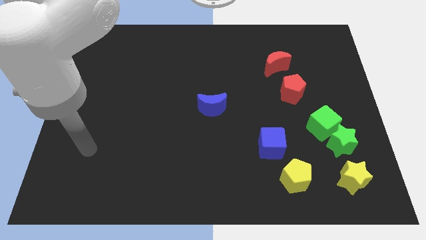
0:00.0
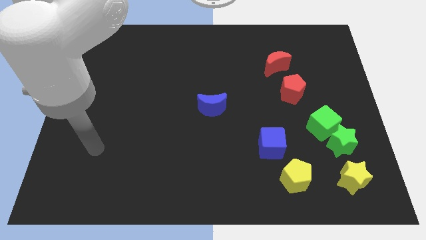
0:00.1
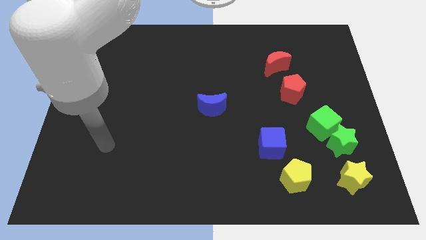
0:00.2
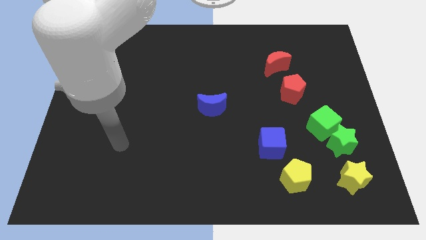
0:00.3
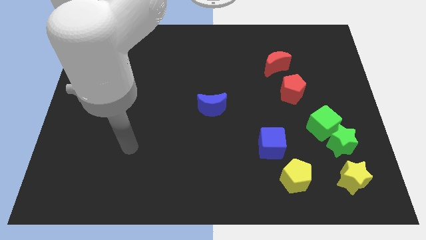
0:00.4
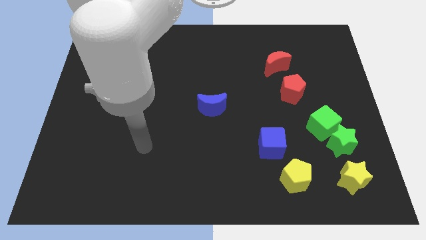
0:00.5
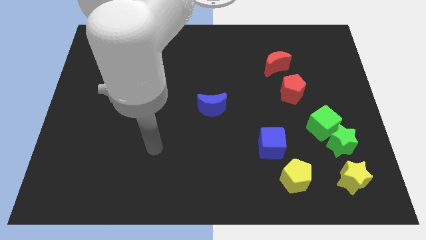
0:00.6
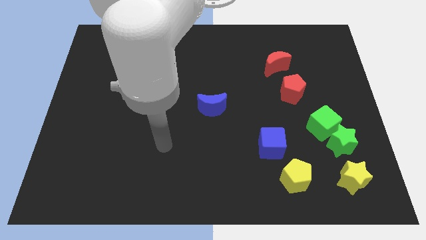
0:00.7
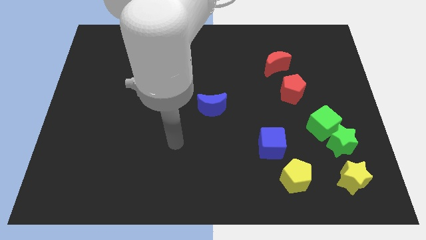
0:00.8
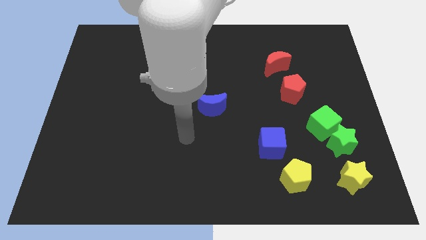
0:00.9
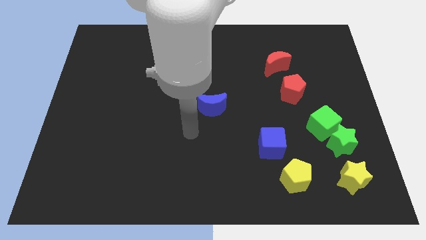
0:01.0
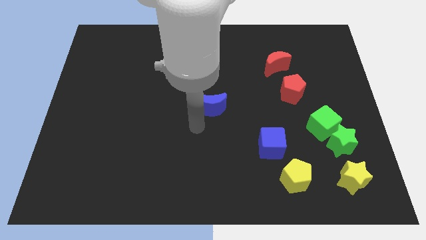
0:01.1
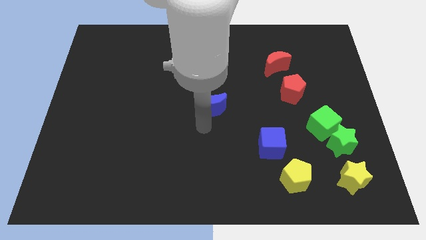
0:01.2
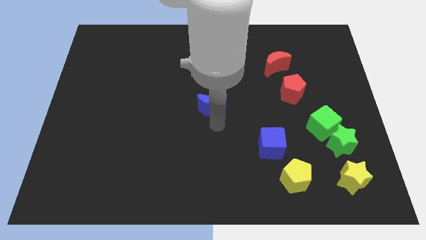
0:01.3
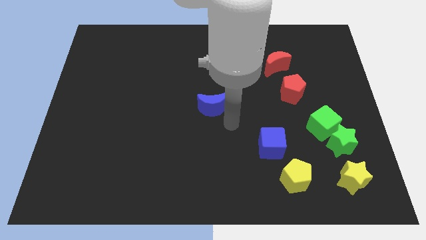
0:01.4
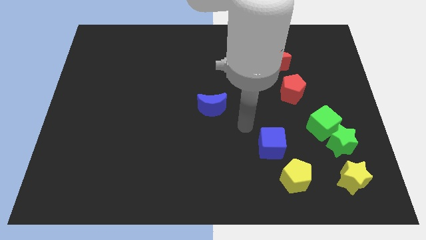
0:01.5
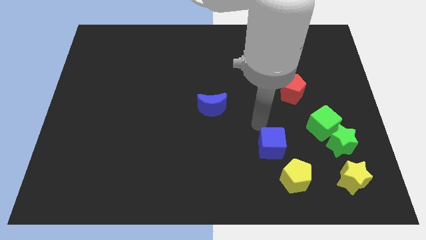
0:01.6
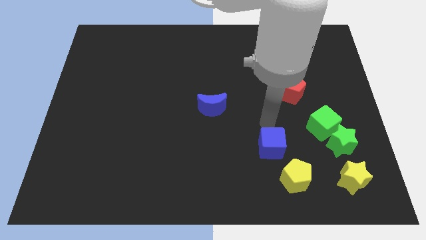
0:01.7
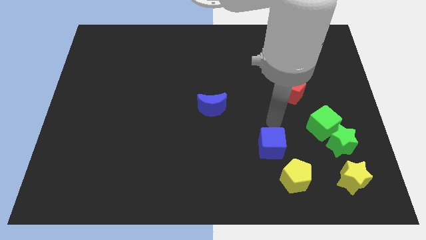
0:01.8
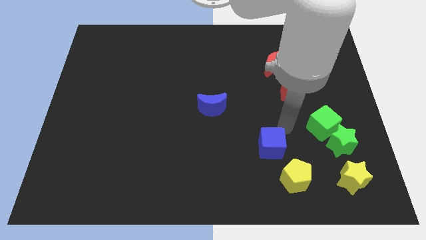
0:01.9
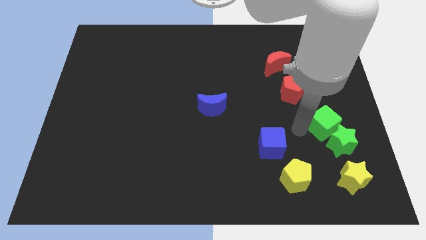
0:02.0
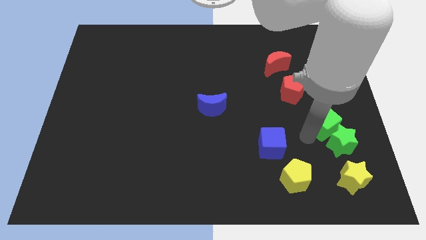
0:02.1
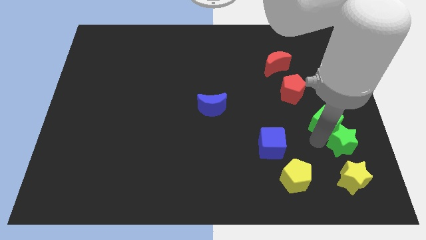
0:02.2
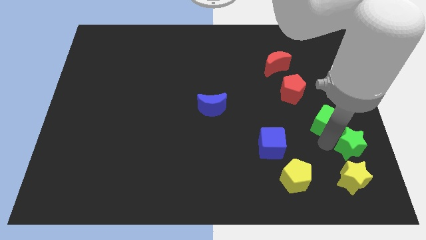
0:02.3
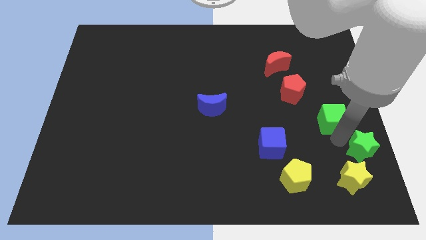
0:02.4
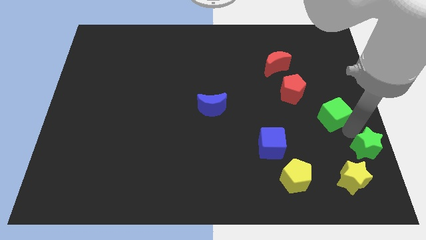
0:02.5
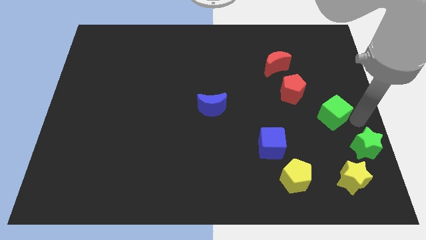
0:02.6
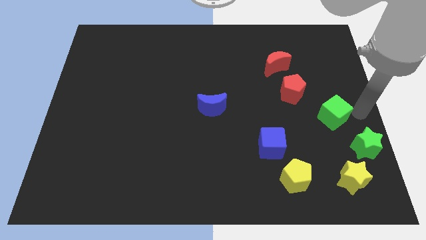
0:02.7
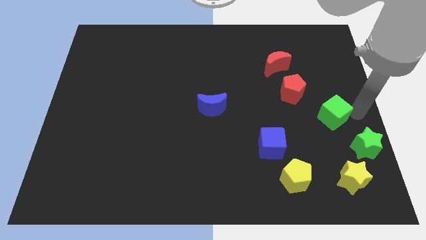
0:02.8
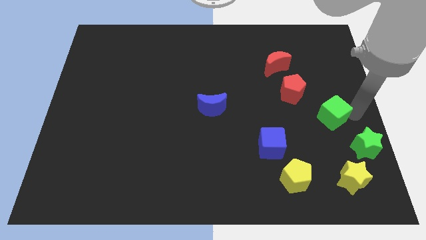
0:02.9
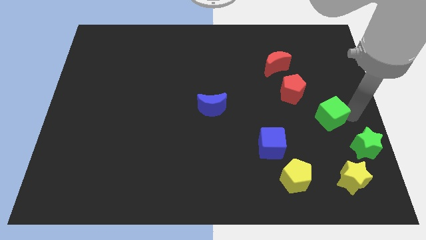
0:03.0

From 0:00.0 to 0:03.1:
separate the green cube from the green star

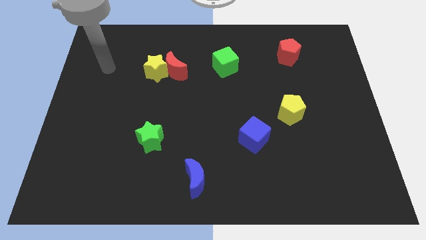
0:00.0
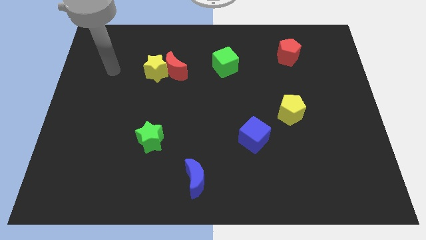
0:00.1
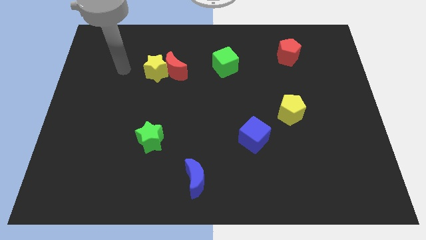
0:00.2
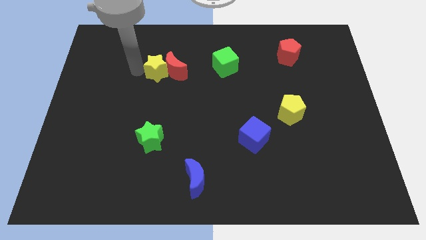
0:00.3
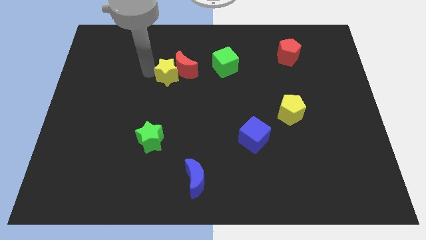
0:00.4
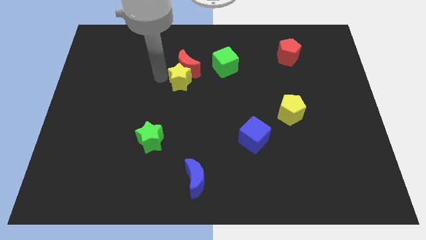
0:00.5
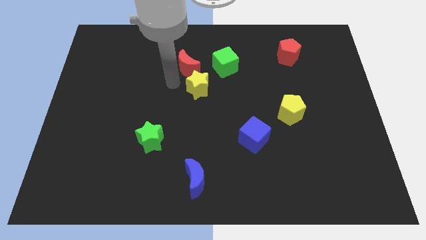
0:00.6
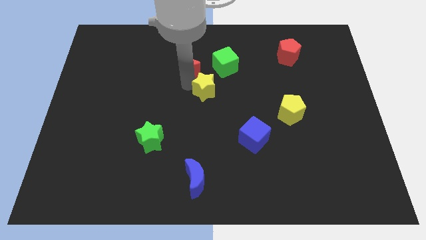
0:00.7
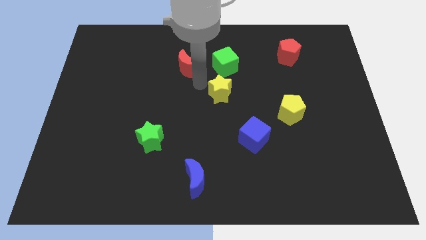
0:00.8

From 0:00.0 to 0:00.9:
separate the red moon from the yellow star

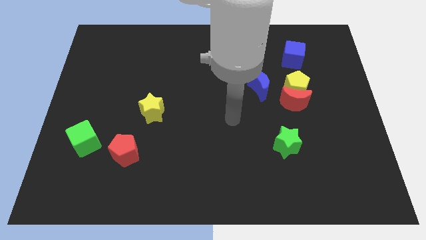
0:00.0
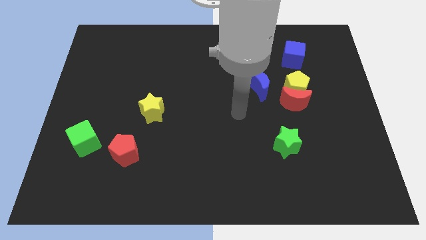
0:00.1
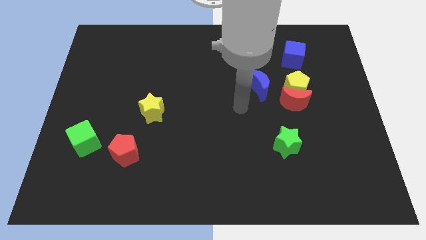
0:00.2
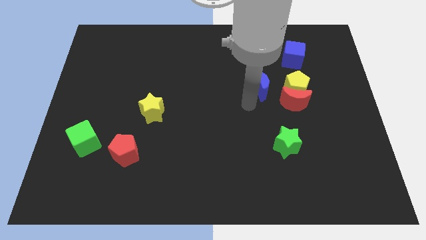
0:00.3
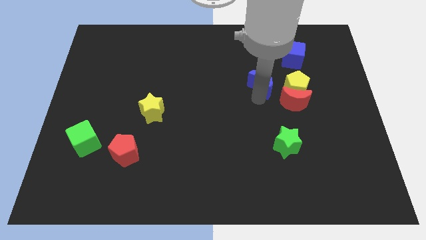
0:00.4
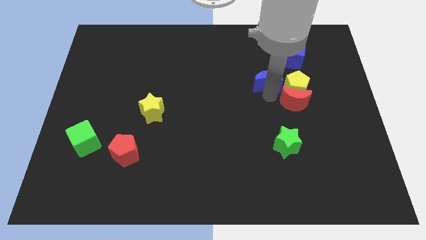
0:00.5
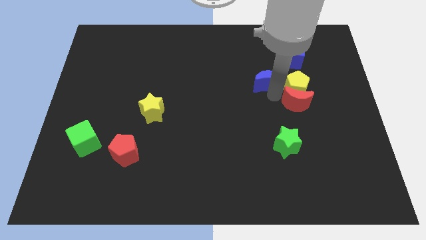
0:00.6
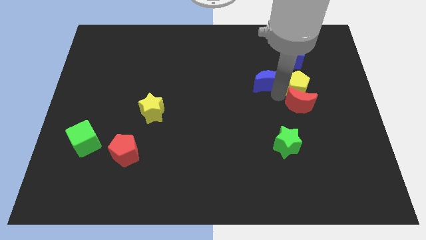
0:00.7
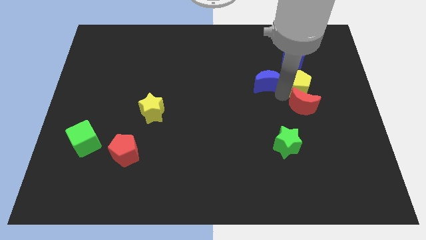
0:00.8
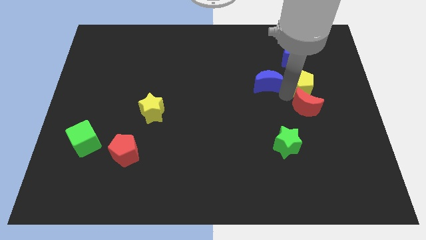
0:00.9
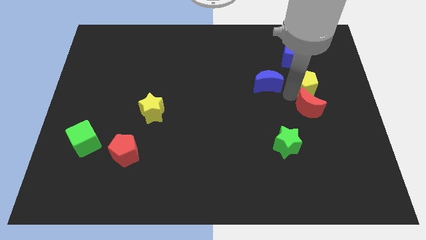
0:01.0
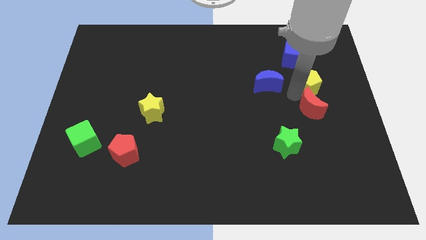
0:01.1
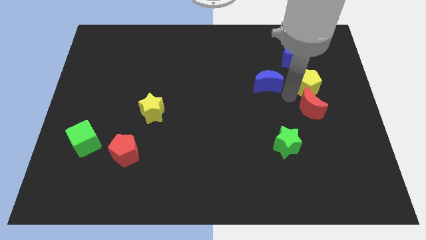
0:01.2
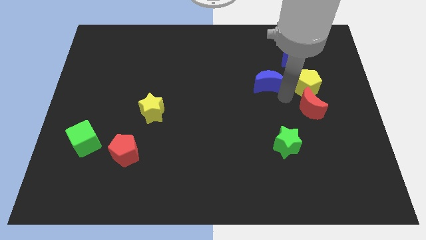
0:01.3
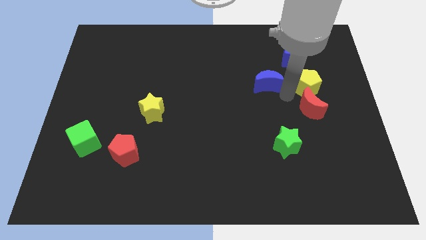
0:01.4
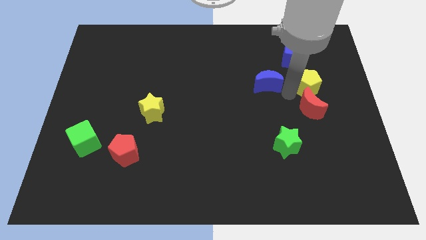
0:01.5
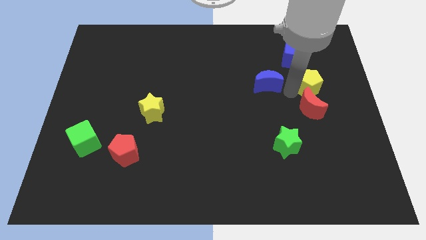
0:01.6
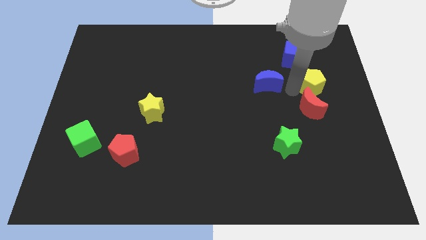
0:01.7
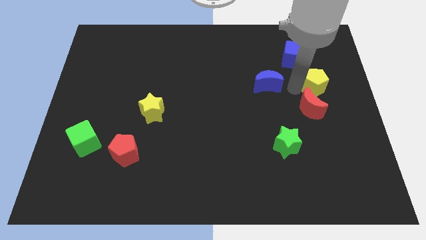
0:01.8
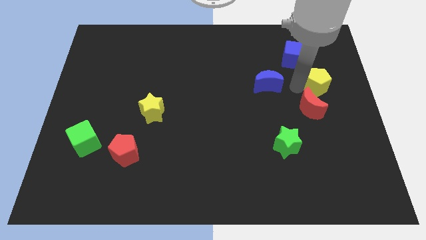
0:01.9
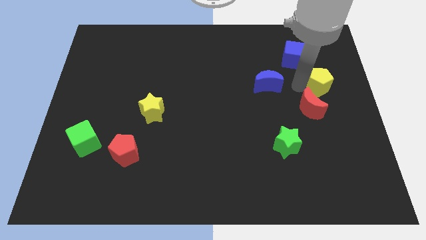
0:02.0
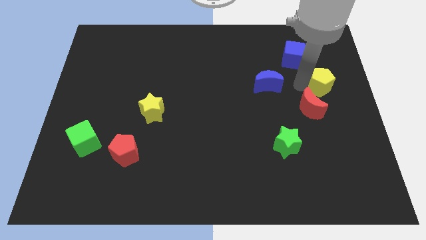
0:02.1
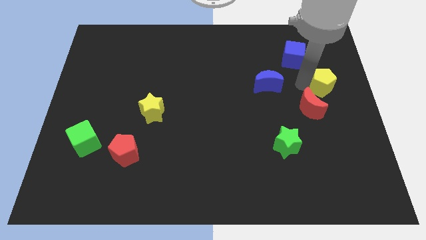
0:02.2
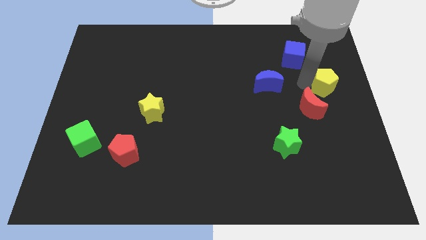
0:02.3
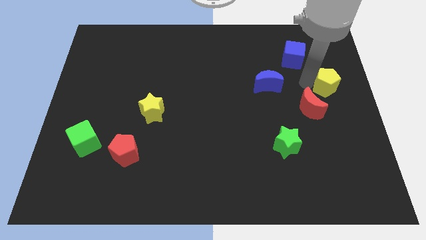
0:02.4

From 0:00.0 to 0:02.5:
move the yellow pentagon away from the red moon and blue moon

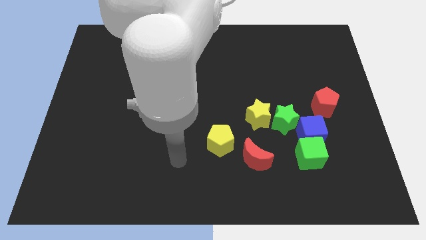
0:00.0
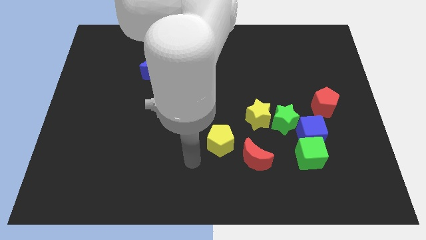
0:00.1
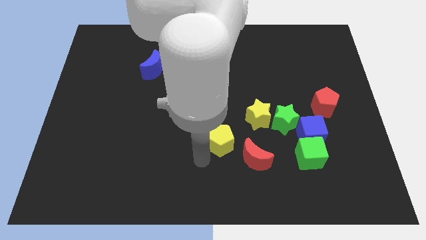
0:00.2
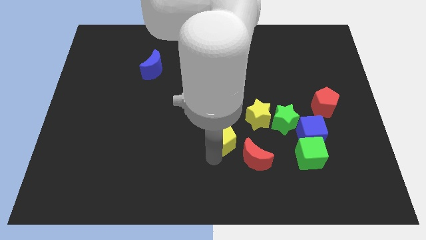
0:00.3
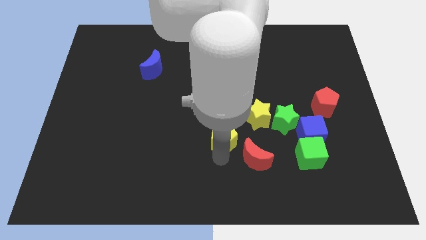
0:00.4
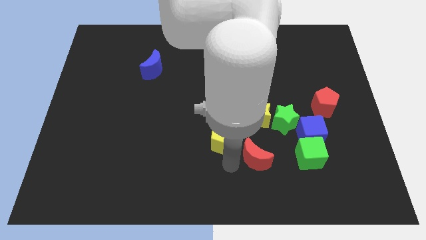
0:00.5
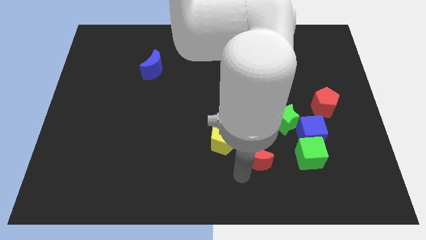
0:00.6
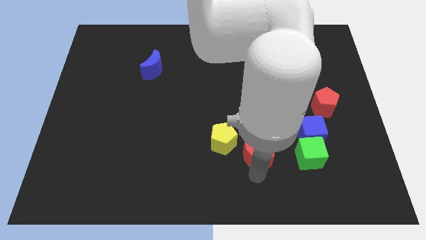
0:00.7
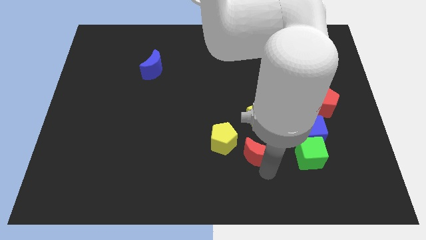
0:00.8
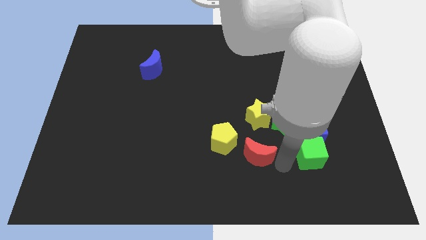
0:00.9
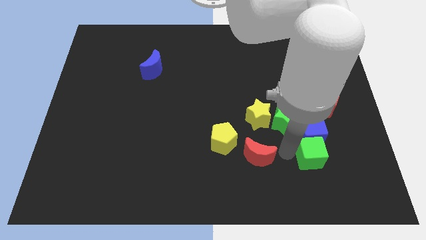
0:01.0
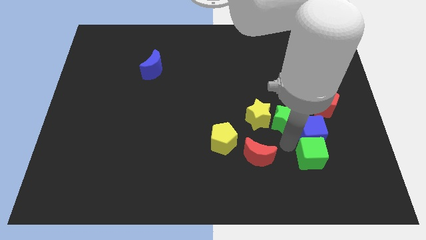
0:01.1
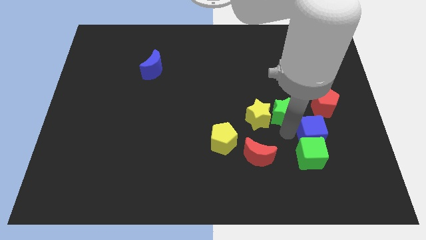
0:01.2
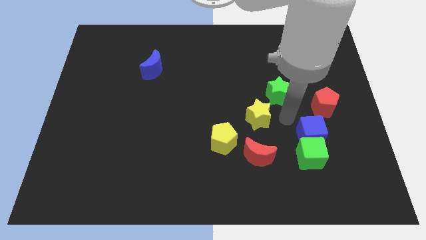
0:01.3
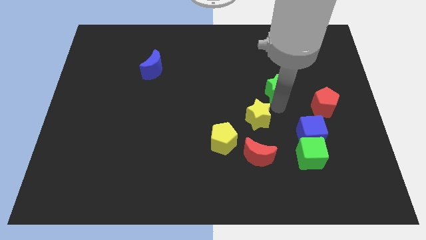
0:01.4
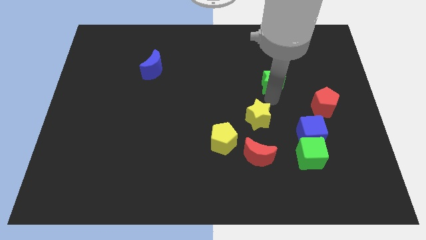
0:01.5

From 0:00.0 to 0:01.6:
pull the yellow star apart from the green star

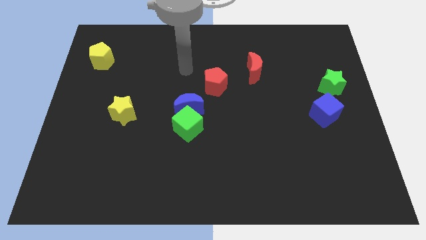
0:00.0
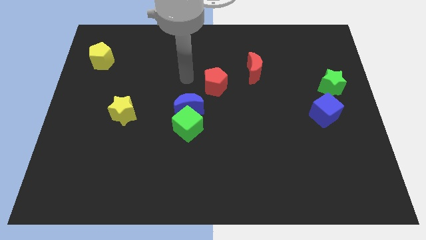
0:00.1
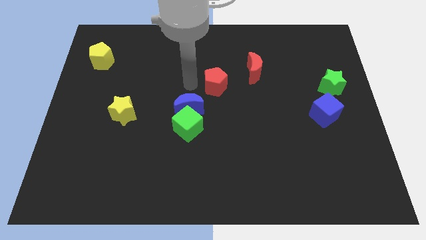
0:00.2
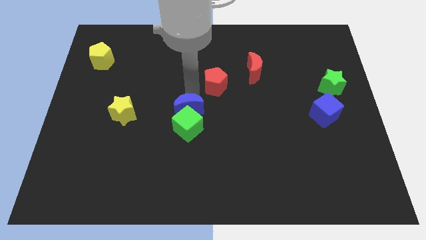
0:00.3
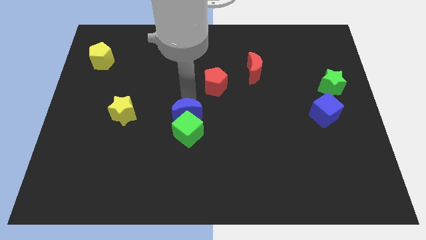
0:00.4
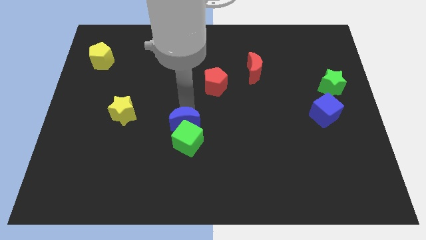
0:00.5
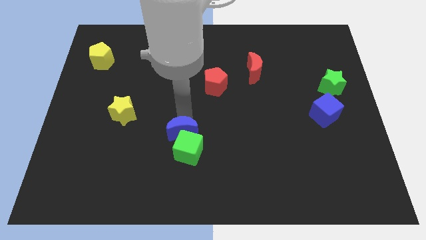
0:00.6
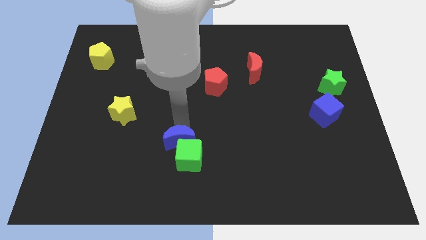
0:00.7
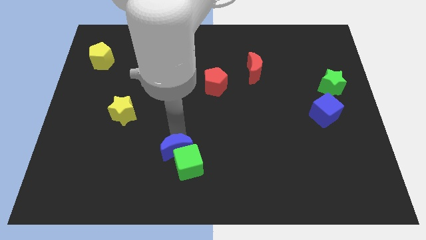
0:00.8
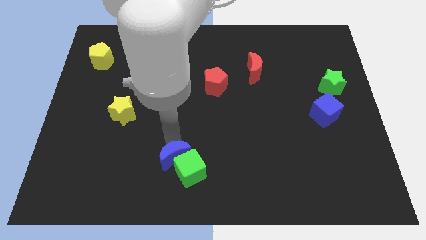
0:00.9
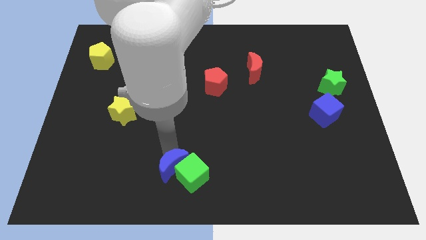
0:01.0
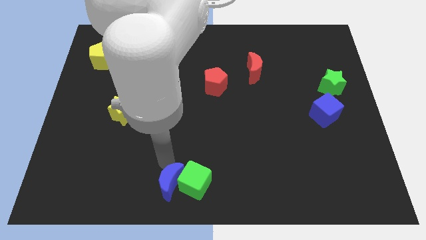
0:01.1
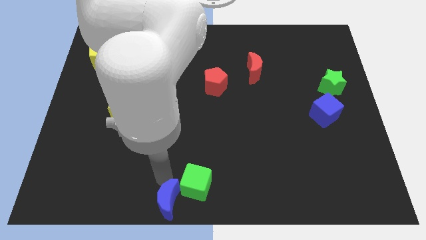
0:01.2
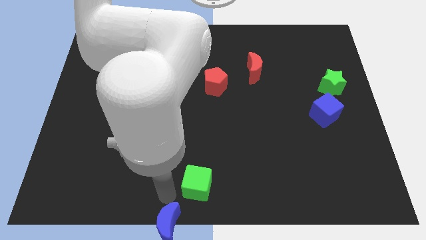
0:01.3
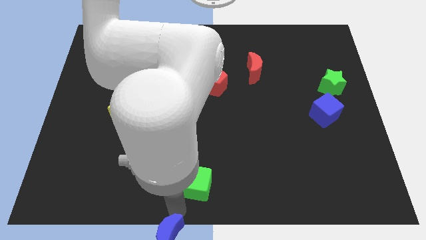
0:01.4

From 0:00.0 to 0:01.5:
pull the green cube apart from the blue moon
